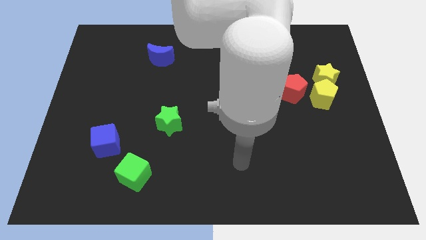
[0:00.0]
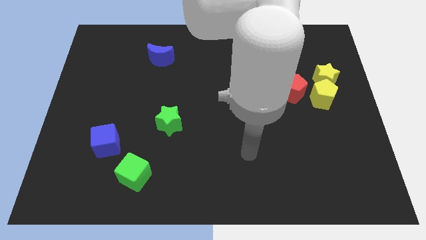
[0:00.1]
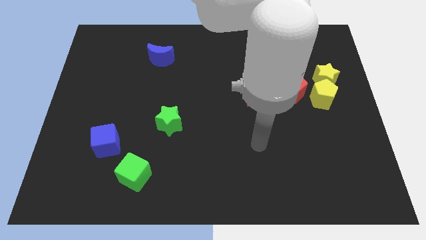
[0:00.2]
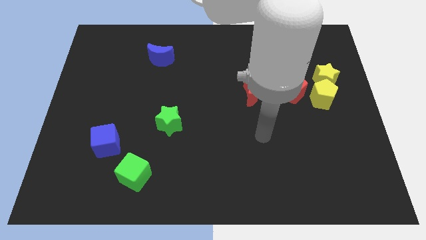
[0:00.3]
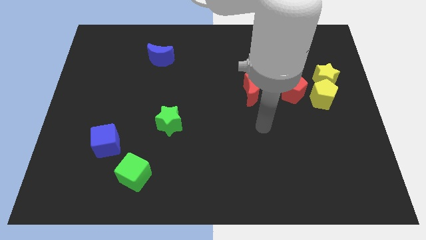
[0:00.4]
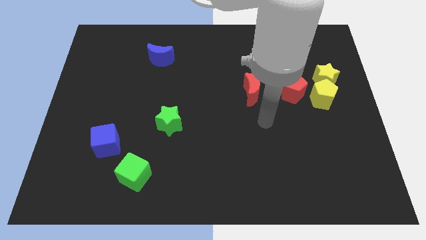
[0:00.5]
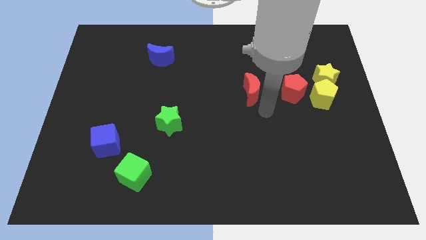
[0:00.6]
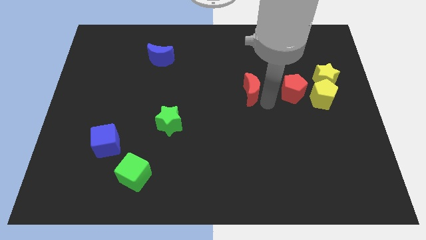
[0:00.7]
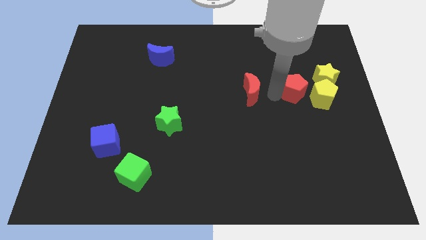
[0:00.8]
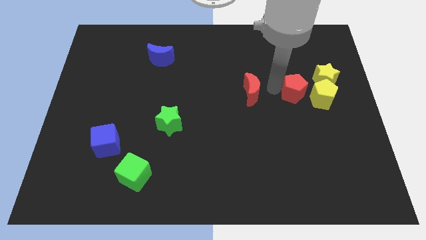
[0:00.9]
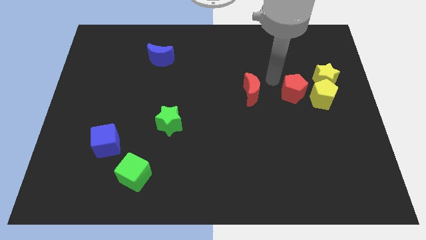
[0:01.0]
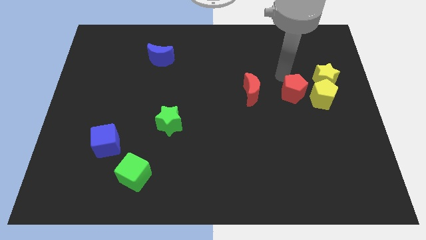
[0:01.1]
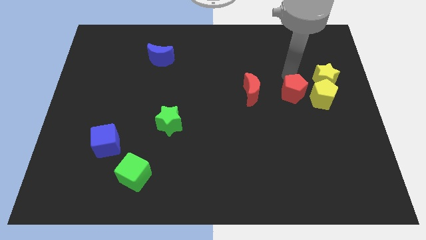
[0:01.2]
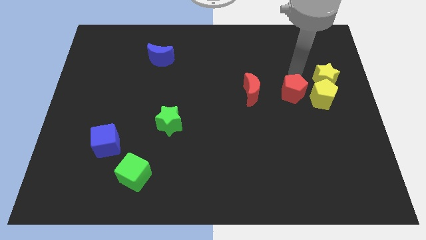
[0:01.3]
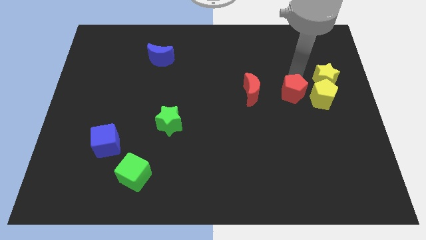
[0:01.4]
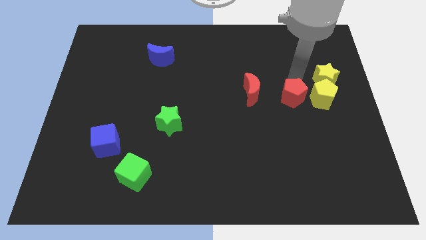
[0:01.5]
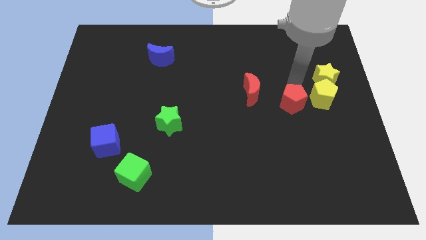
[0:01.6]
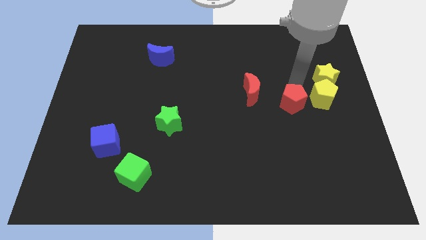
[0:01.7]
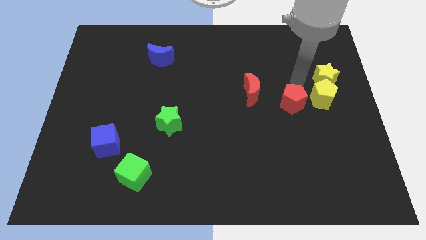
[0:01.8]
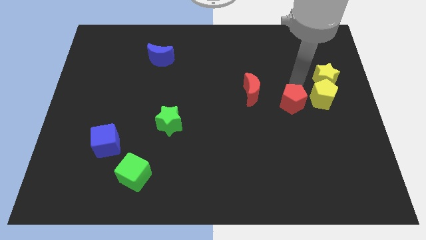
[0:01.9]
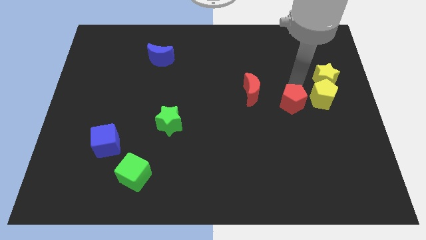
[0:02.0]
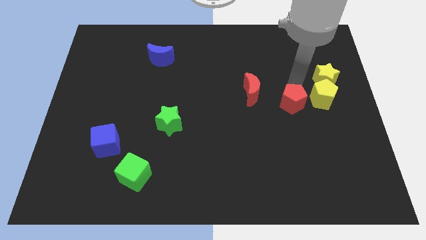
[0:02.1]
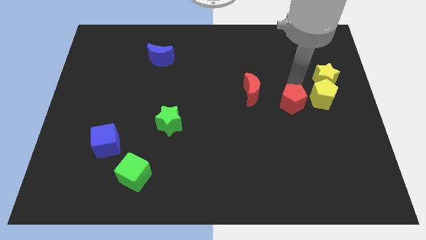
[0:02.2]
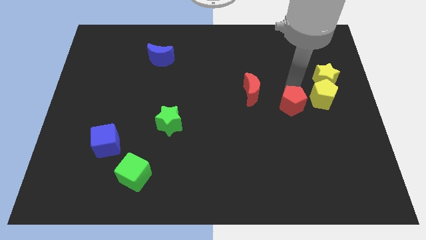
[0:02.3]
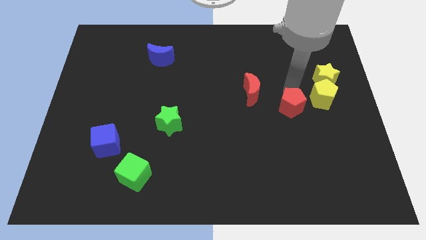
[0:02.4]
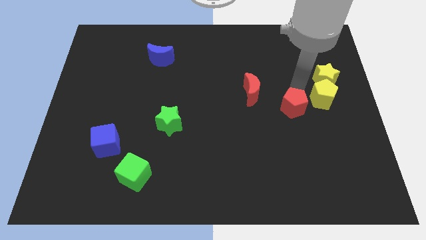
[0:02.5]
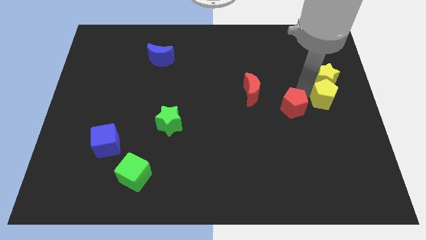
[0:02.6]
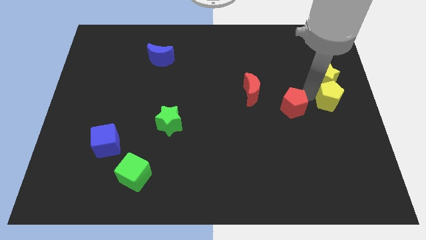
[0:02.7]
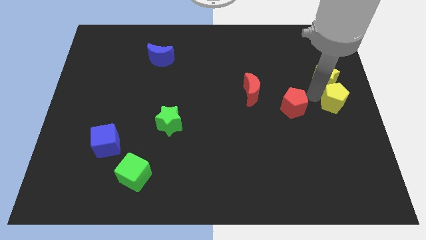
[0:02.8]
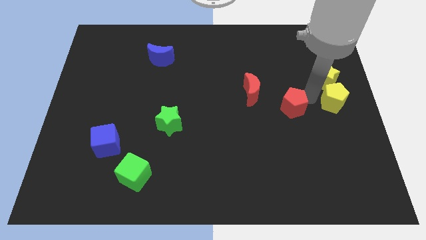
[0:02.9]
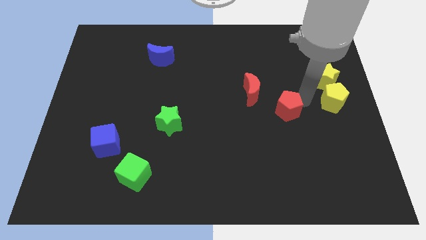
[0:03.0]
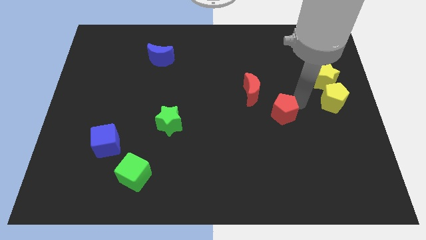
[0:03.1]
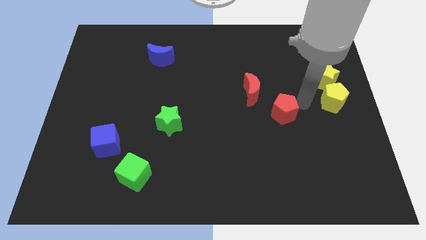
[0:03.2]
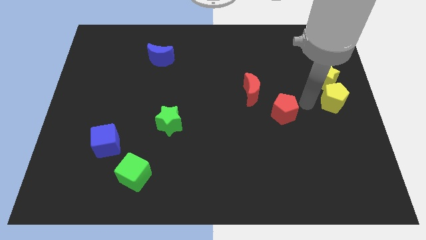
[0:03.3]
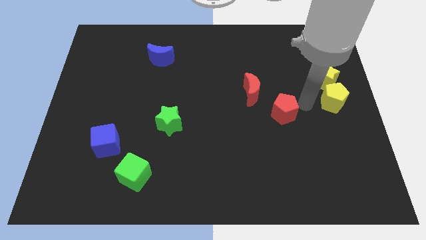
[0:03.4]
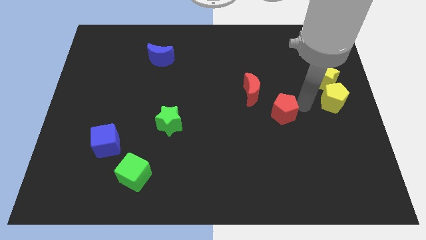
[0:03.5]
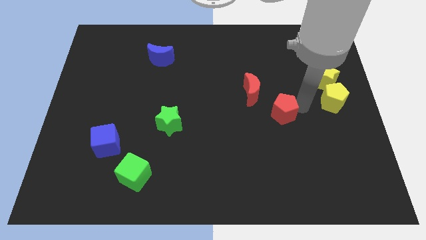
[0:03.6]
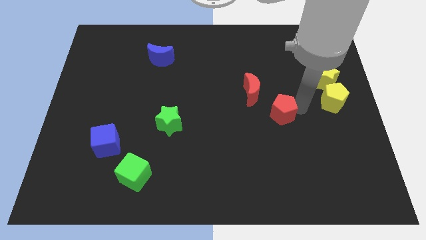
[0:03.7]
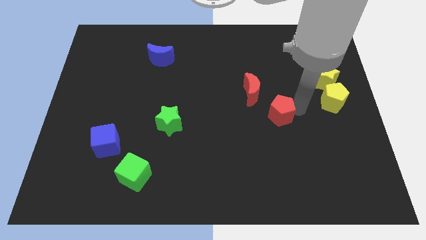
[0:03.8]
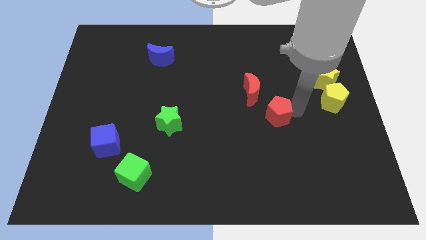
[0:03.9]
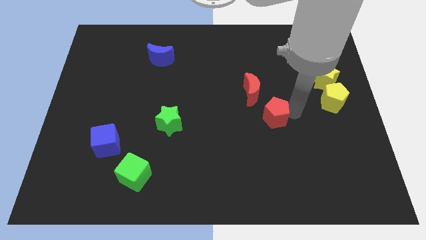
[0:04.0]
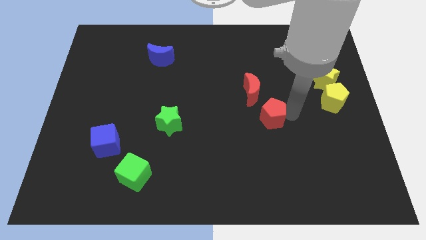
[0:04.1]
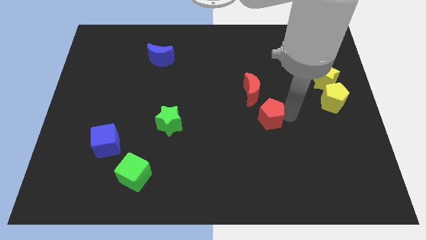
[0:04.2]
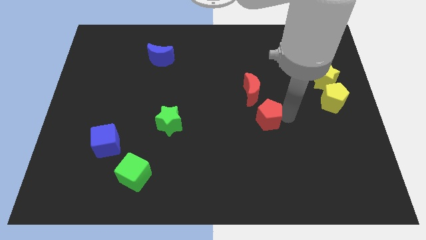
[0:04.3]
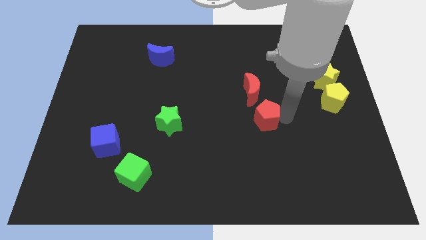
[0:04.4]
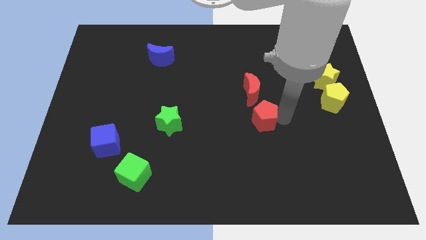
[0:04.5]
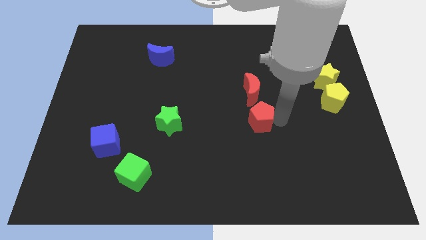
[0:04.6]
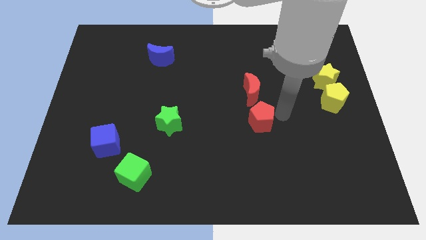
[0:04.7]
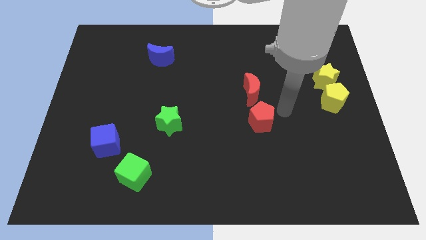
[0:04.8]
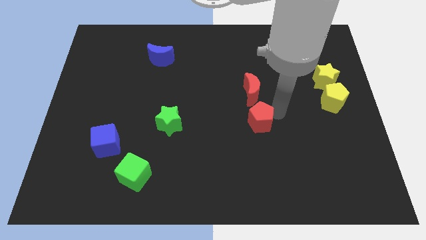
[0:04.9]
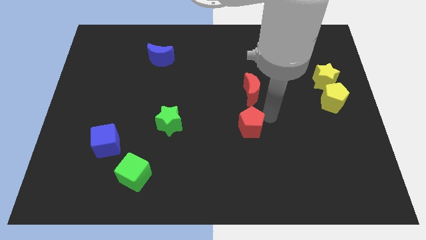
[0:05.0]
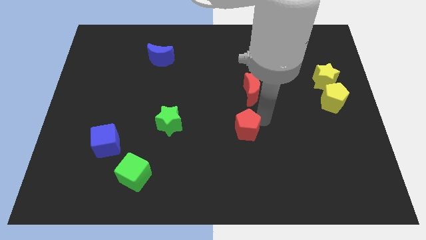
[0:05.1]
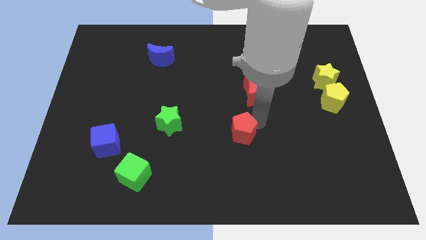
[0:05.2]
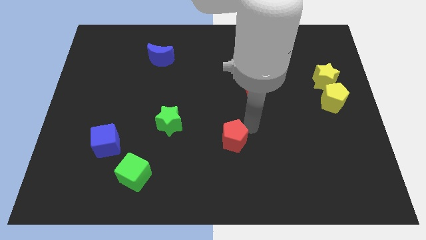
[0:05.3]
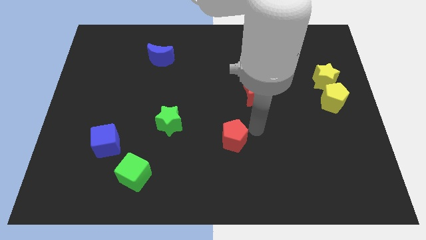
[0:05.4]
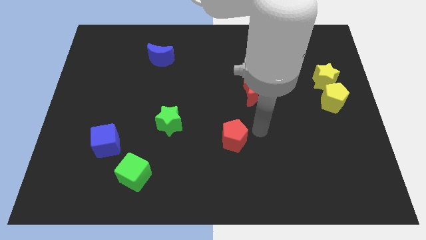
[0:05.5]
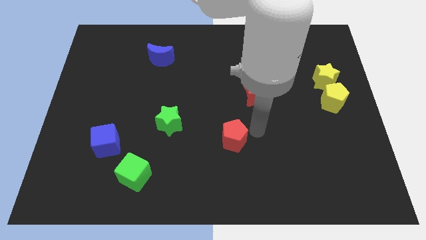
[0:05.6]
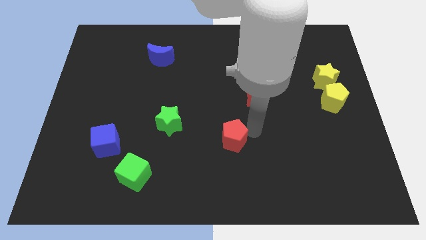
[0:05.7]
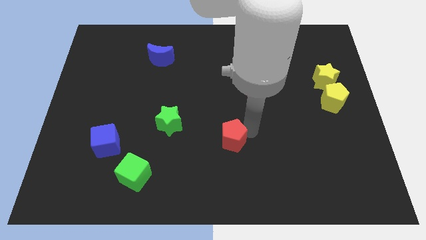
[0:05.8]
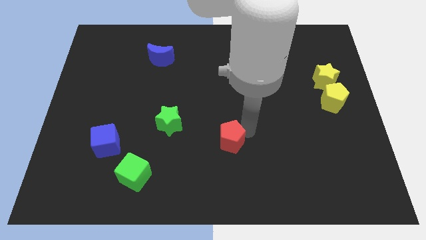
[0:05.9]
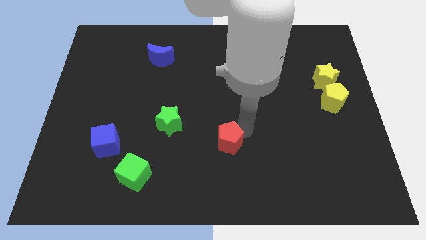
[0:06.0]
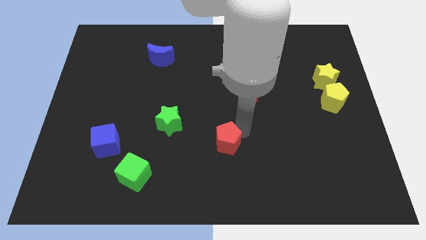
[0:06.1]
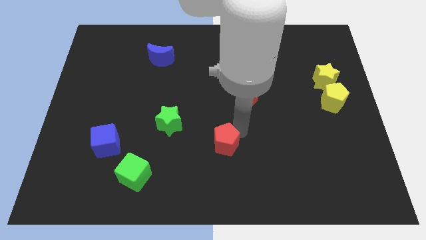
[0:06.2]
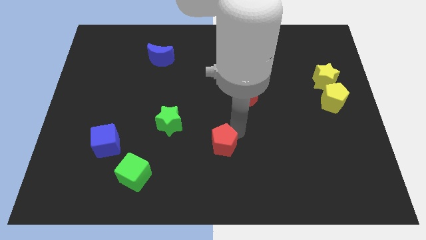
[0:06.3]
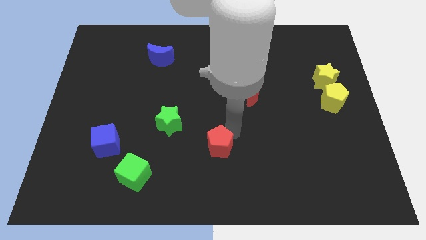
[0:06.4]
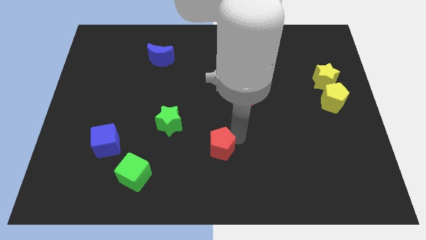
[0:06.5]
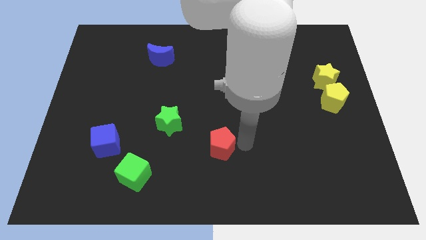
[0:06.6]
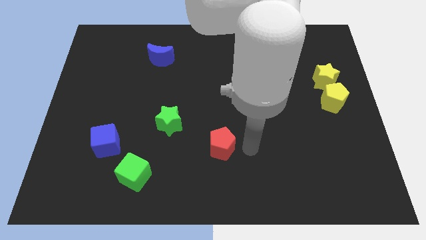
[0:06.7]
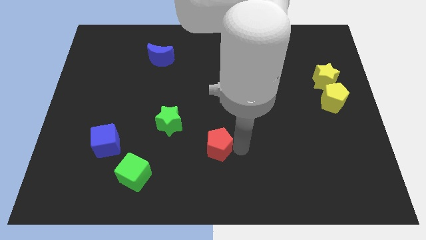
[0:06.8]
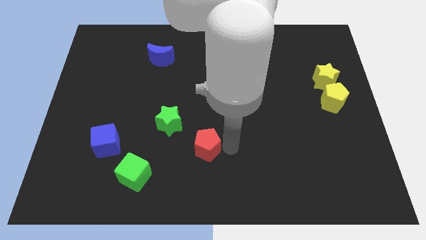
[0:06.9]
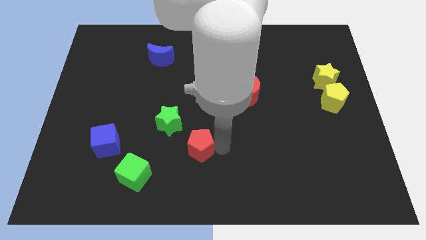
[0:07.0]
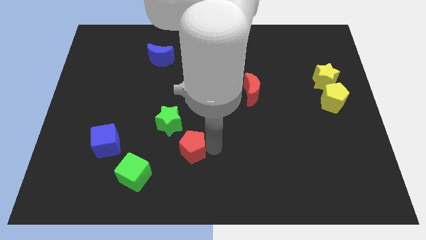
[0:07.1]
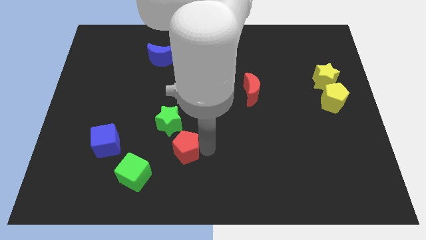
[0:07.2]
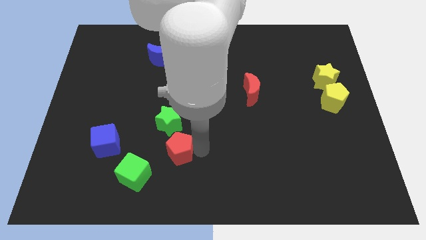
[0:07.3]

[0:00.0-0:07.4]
move the red pentagon to the right side of the blue cube
